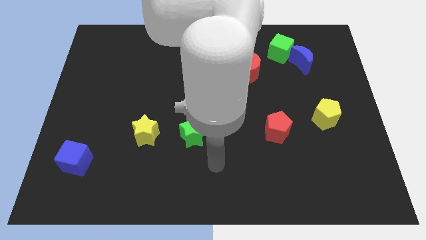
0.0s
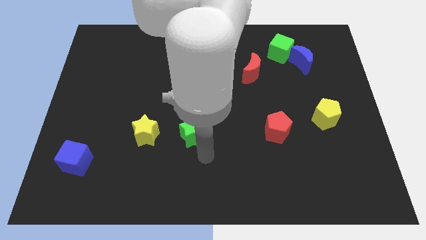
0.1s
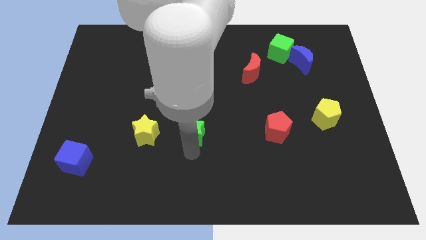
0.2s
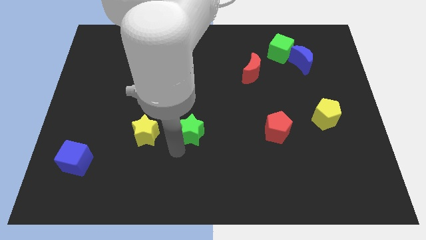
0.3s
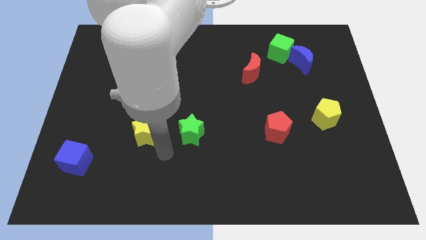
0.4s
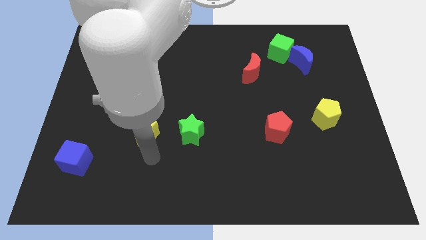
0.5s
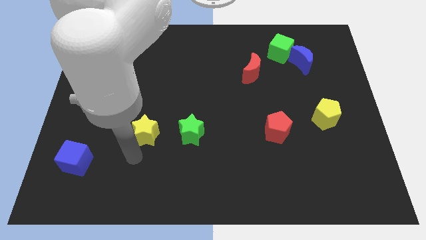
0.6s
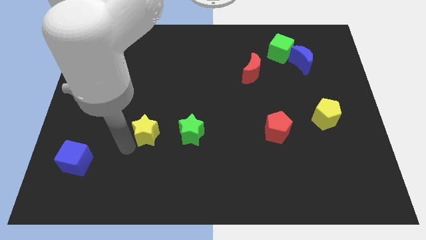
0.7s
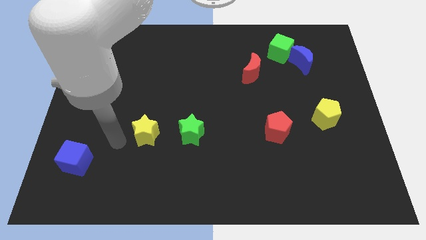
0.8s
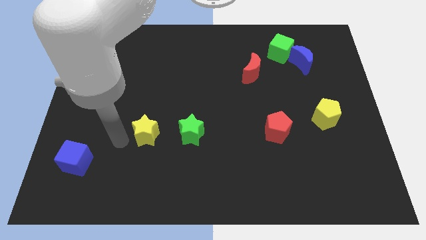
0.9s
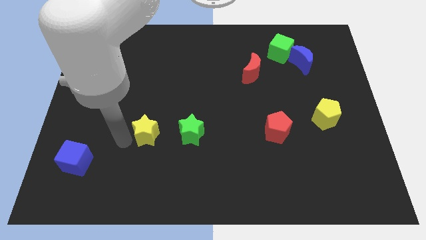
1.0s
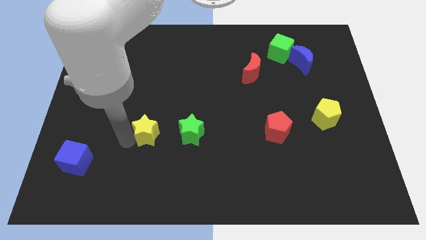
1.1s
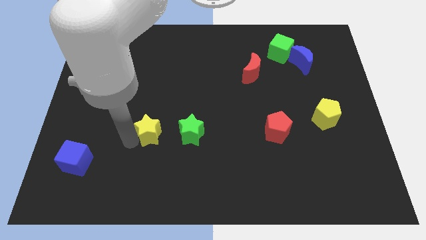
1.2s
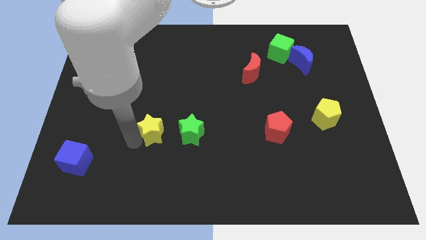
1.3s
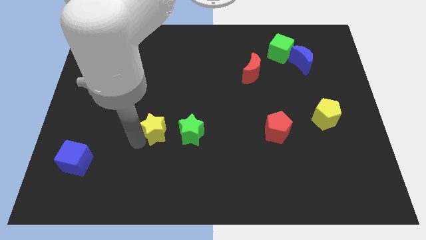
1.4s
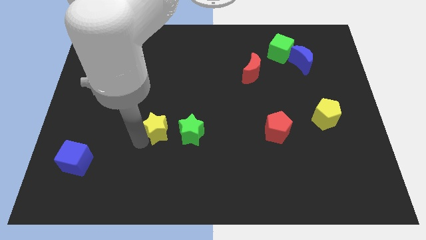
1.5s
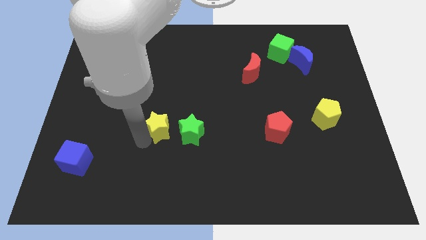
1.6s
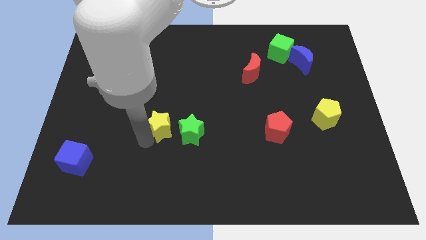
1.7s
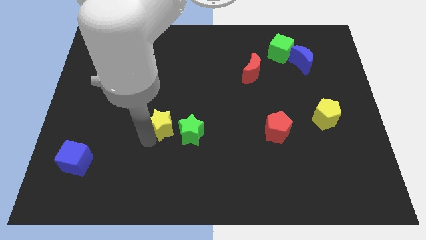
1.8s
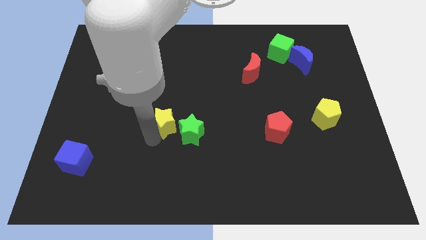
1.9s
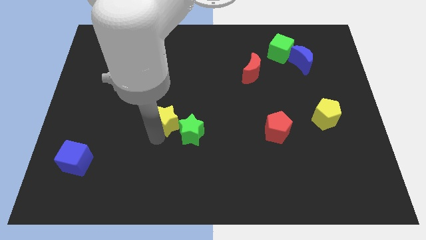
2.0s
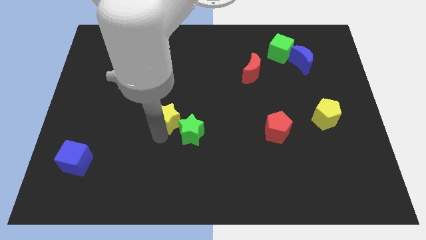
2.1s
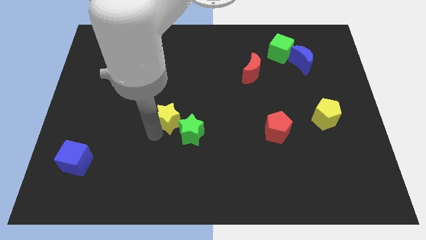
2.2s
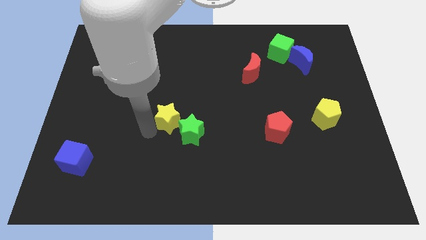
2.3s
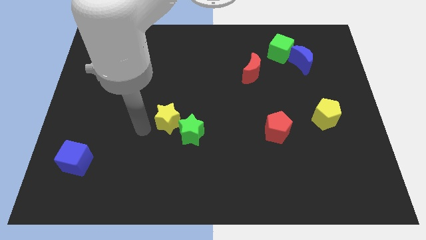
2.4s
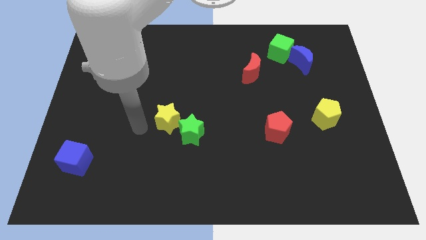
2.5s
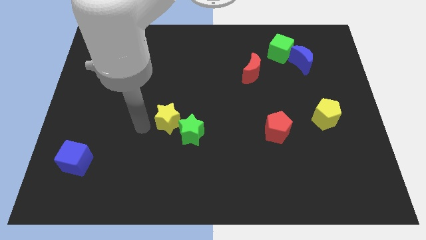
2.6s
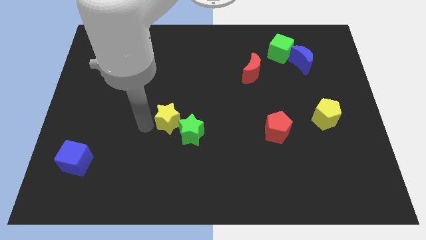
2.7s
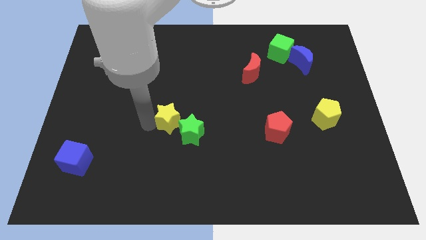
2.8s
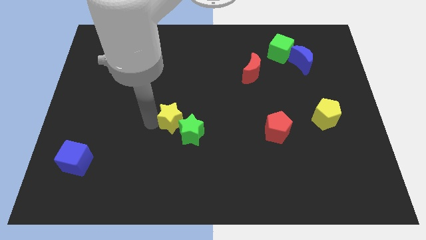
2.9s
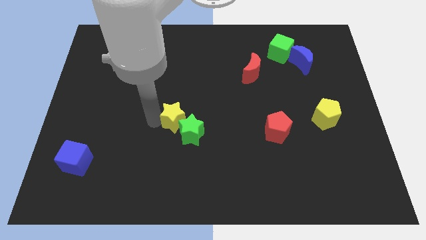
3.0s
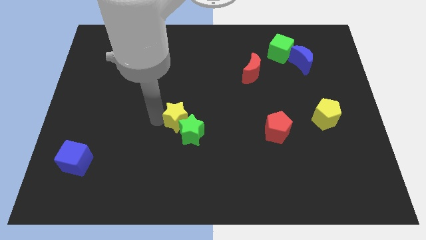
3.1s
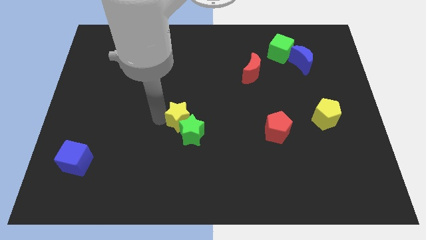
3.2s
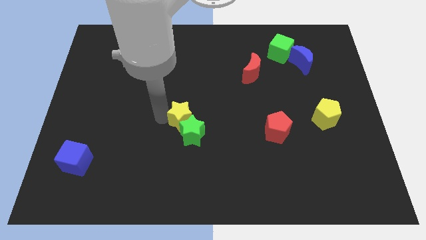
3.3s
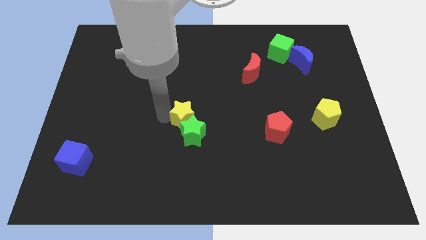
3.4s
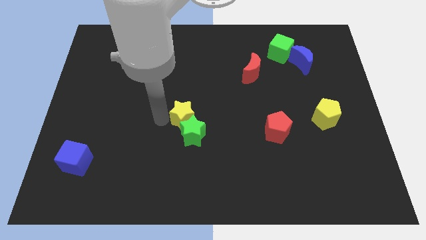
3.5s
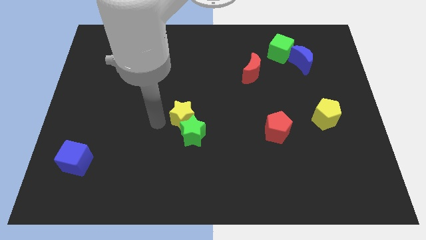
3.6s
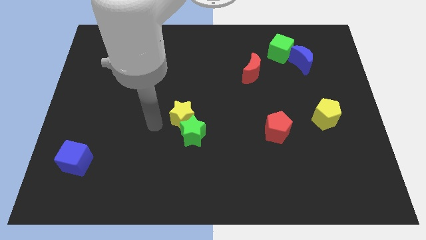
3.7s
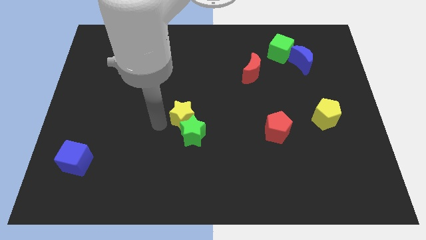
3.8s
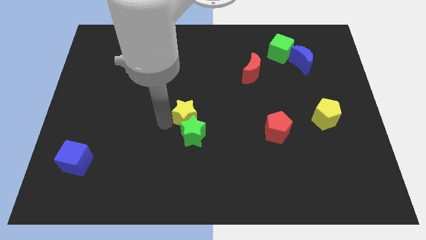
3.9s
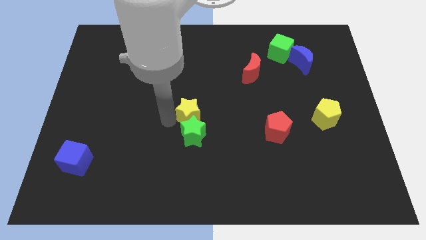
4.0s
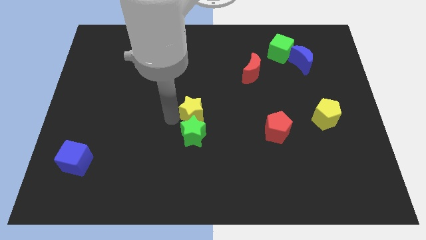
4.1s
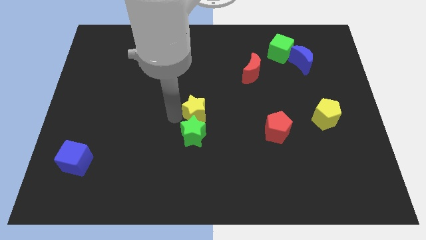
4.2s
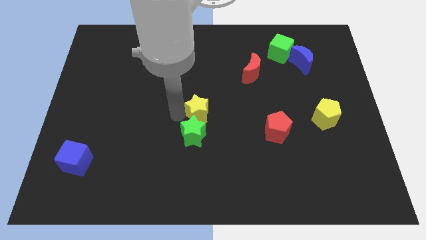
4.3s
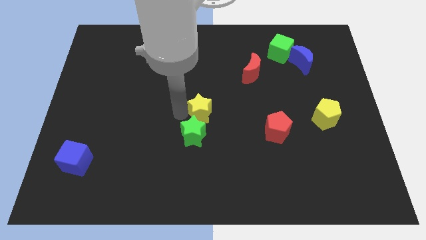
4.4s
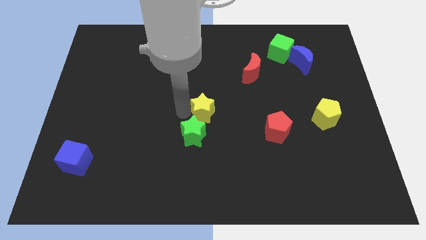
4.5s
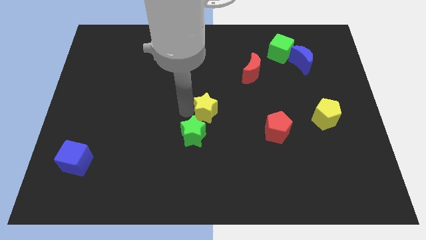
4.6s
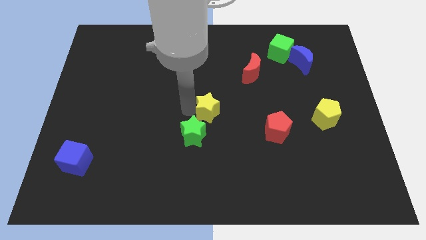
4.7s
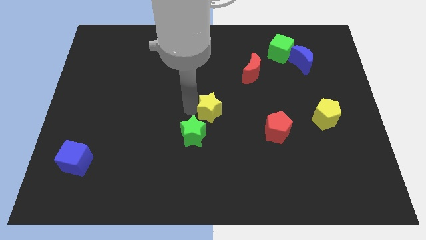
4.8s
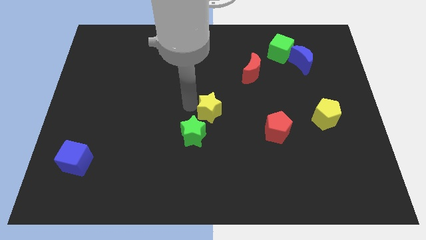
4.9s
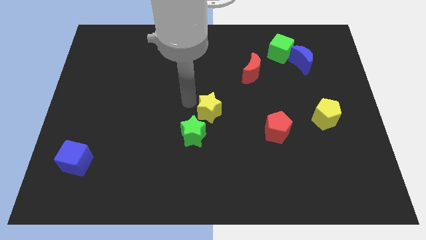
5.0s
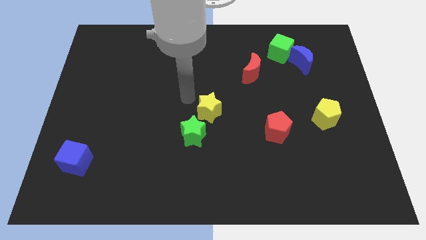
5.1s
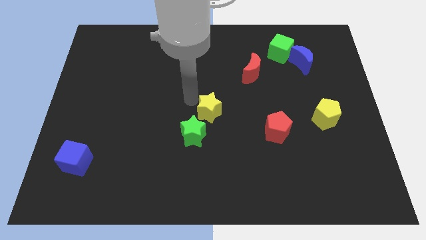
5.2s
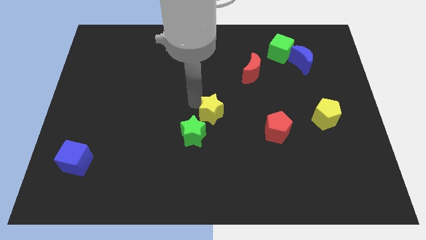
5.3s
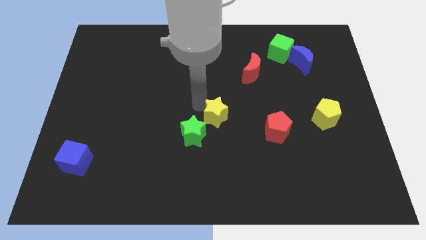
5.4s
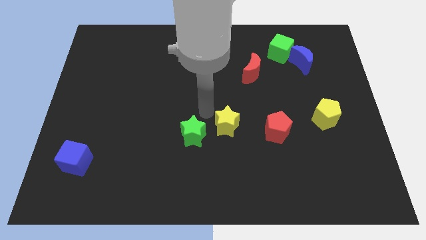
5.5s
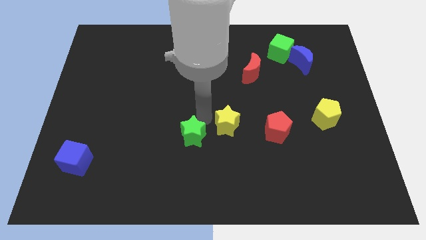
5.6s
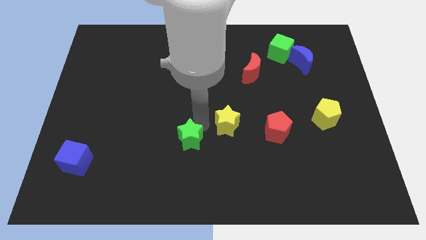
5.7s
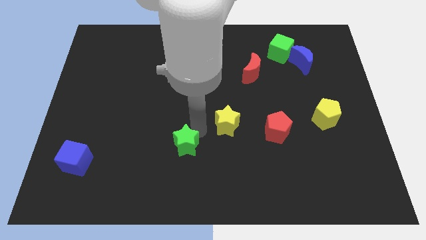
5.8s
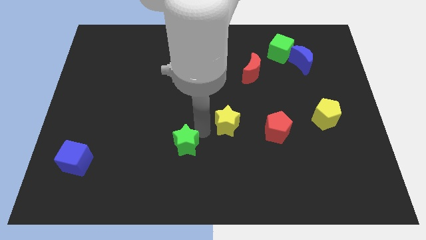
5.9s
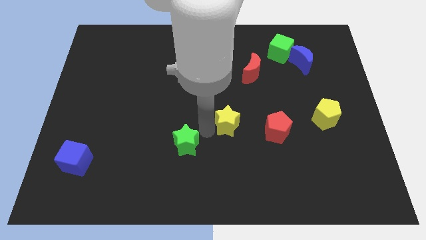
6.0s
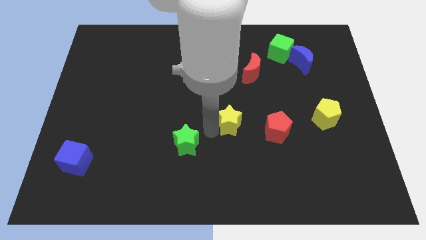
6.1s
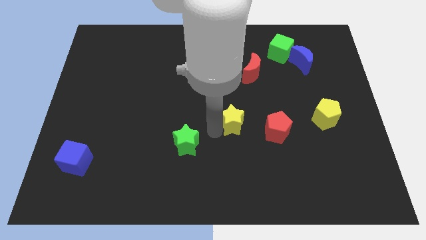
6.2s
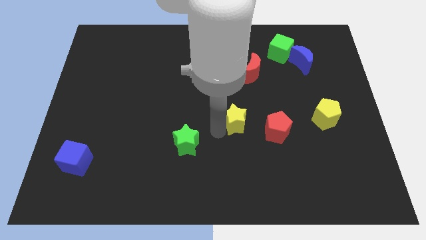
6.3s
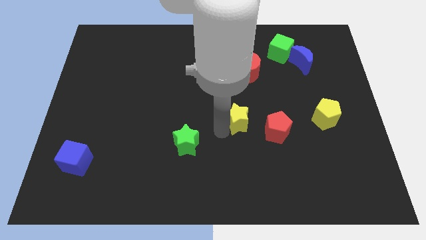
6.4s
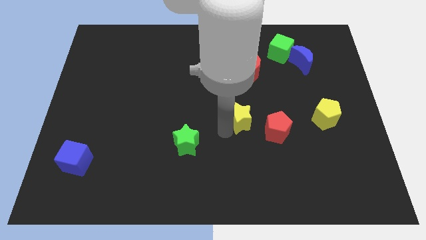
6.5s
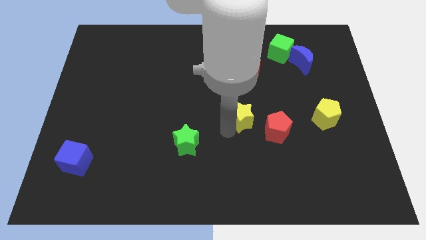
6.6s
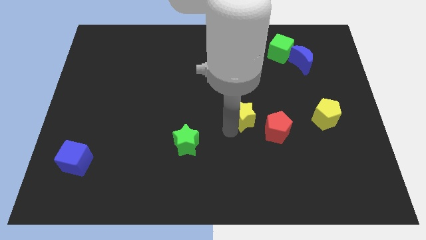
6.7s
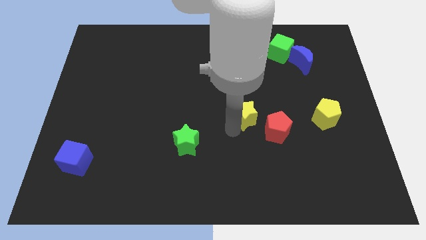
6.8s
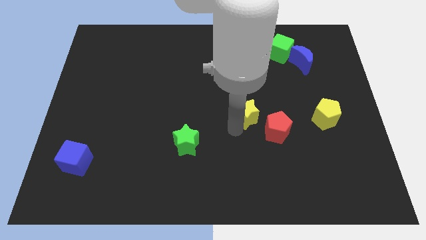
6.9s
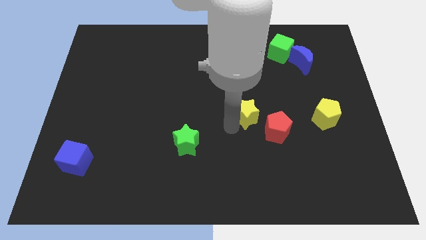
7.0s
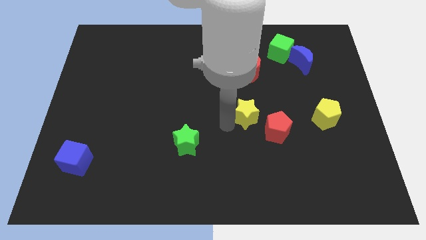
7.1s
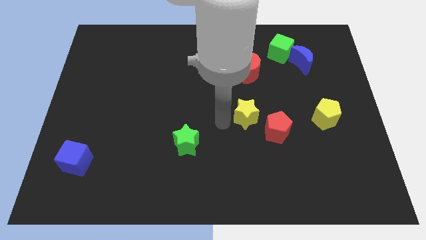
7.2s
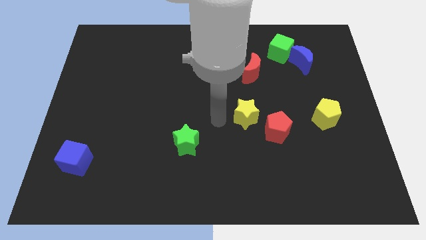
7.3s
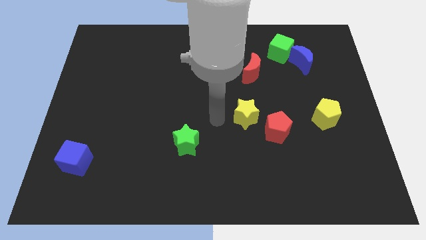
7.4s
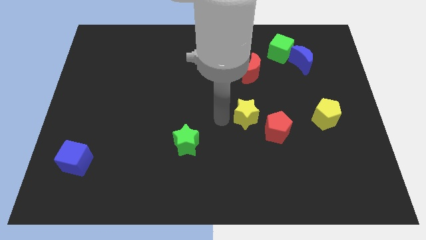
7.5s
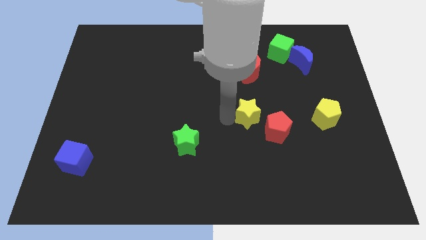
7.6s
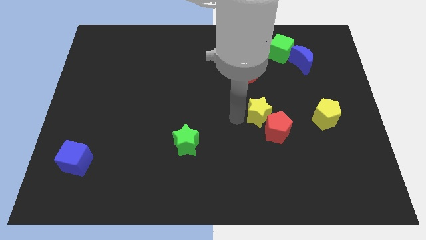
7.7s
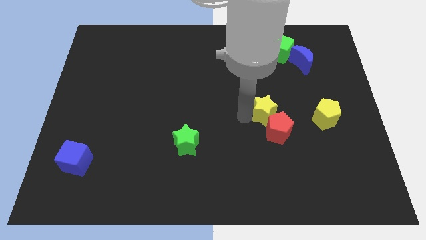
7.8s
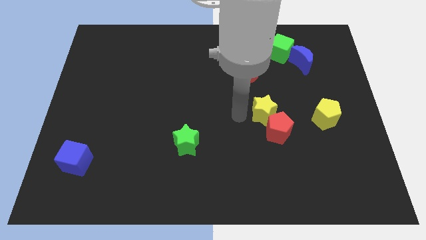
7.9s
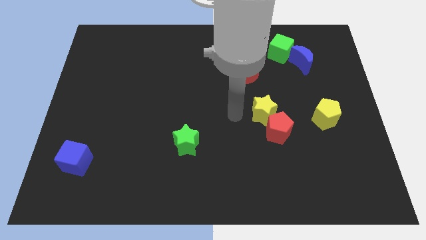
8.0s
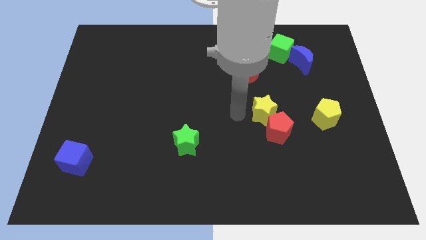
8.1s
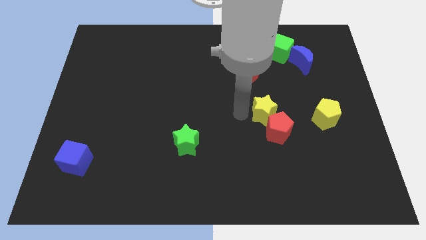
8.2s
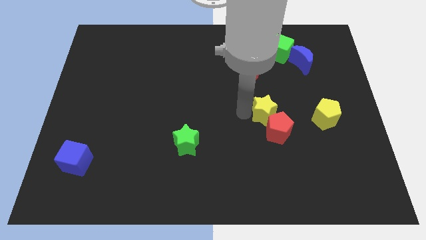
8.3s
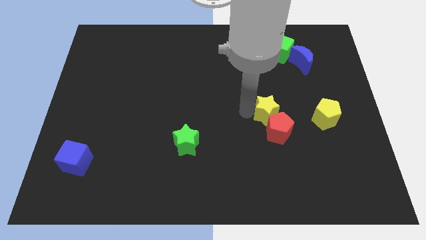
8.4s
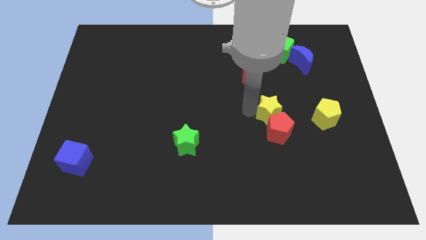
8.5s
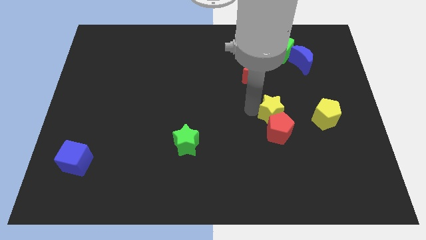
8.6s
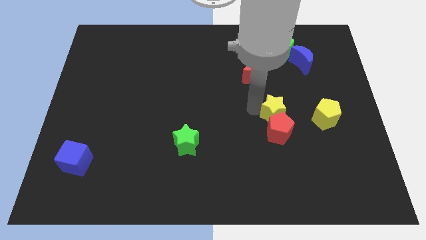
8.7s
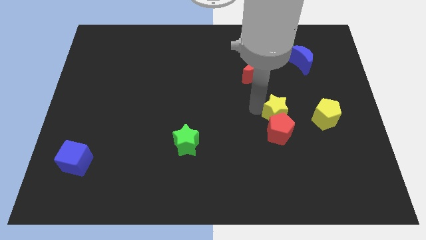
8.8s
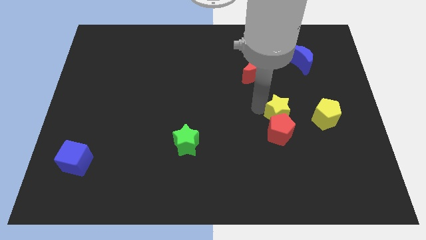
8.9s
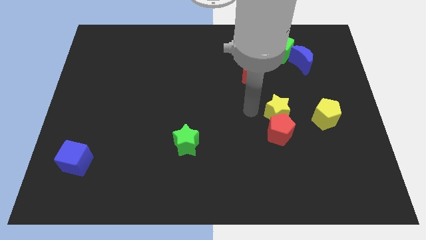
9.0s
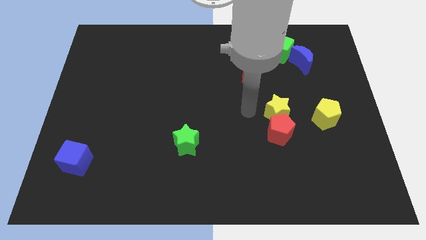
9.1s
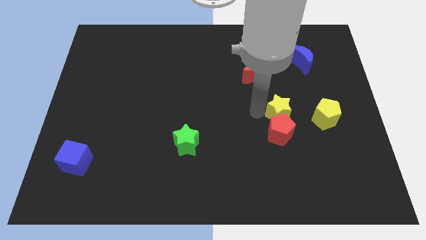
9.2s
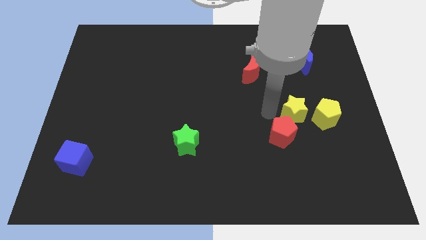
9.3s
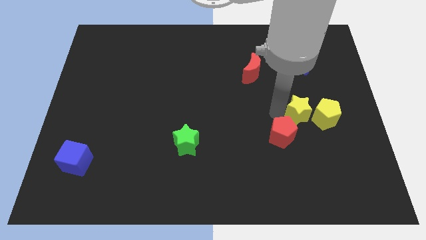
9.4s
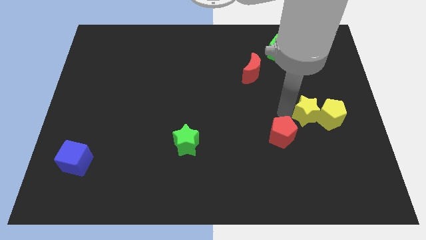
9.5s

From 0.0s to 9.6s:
slide the yellow star next to the yellow pentagon
